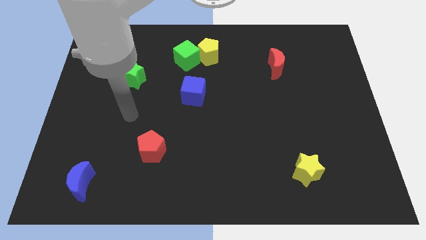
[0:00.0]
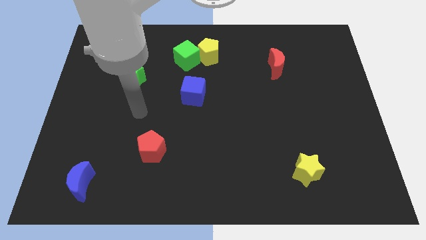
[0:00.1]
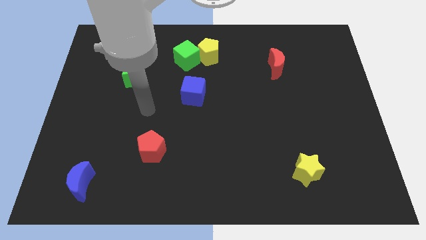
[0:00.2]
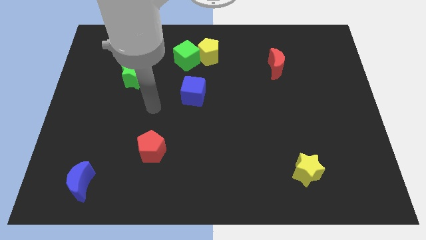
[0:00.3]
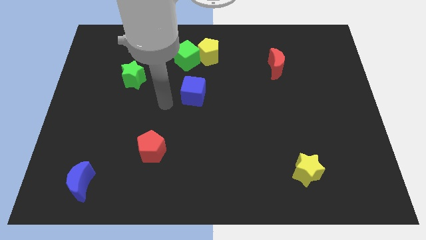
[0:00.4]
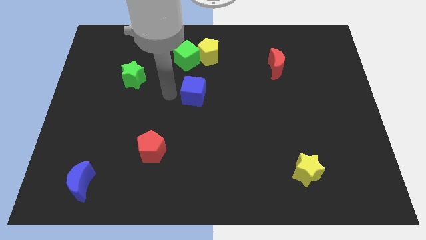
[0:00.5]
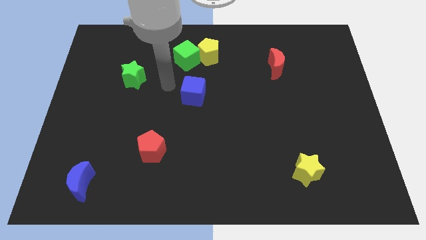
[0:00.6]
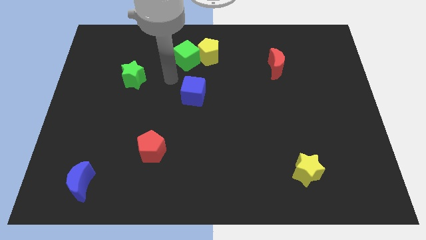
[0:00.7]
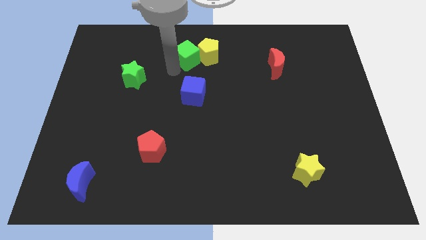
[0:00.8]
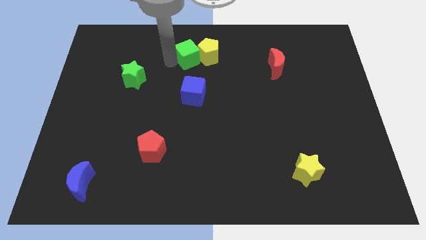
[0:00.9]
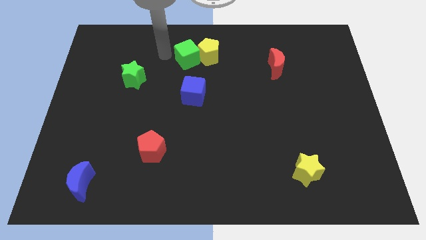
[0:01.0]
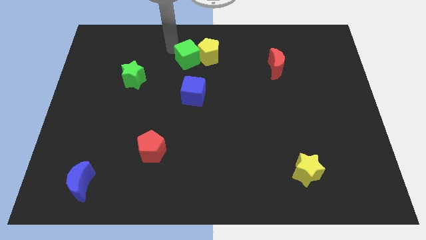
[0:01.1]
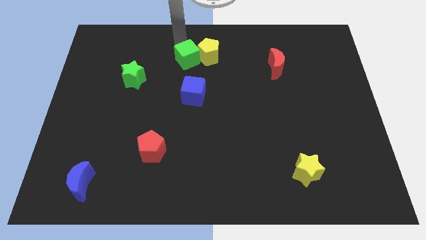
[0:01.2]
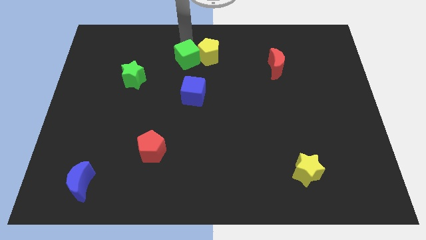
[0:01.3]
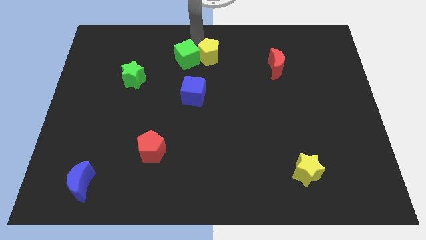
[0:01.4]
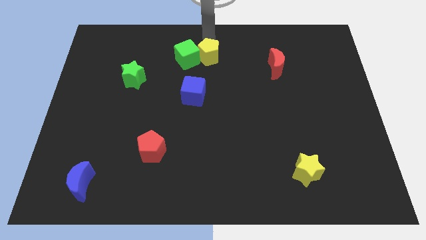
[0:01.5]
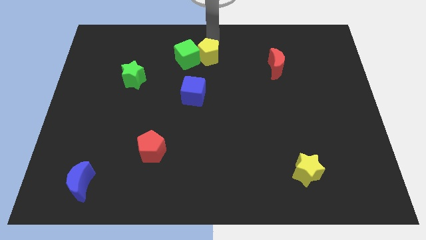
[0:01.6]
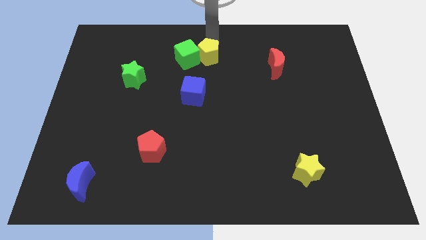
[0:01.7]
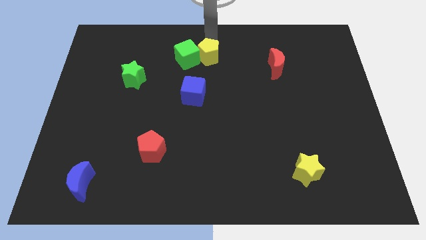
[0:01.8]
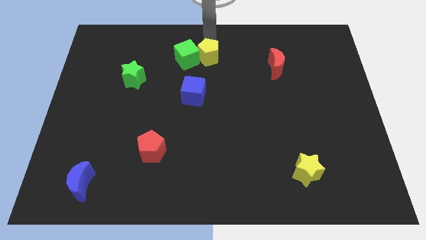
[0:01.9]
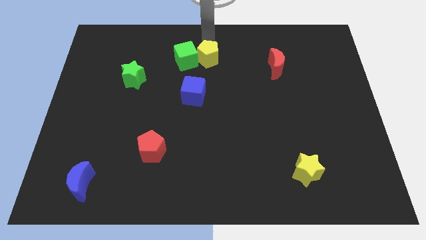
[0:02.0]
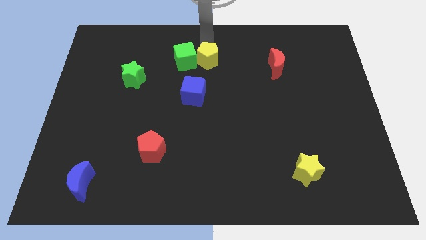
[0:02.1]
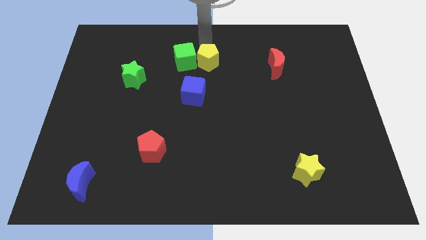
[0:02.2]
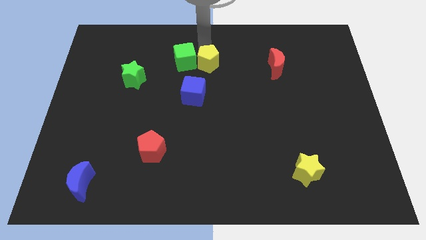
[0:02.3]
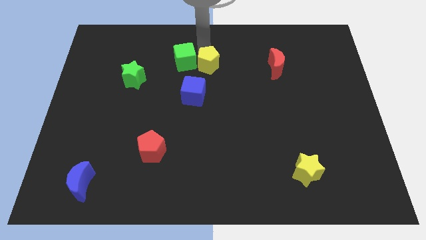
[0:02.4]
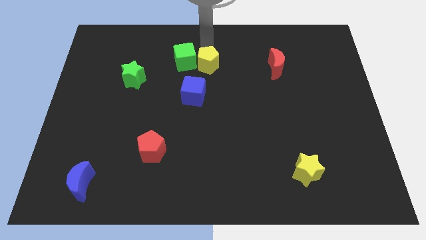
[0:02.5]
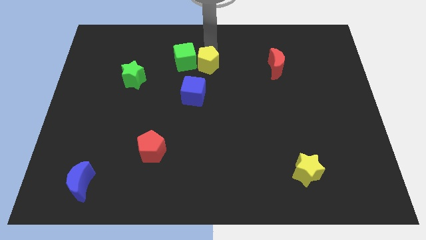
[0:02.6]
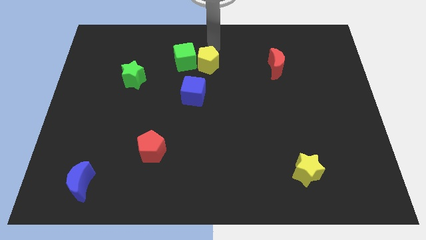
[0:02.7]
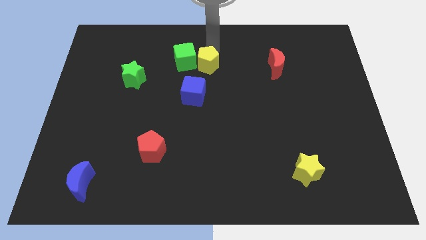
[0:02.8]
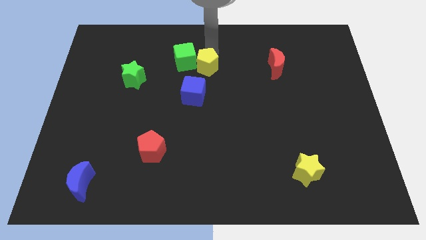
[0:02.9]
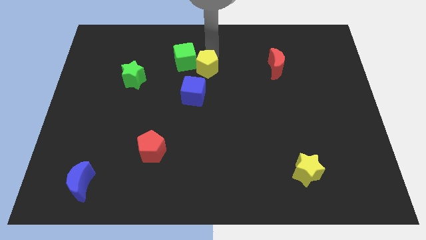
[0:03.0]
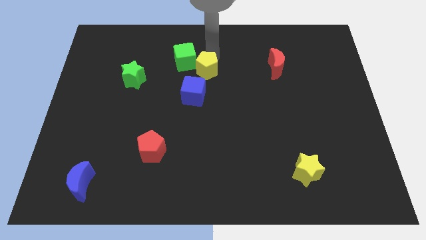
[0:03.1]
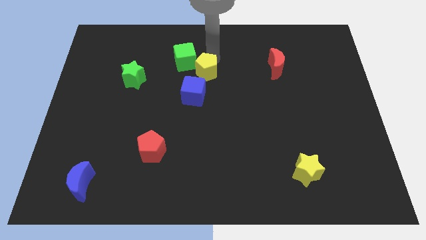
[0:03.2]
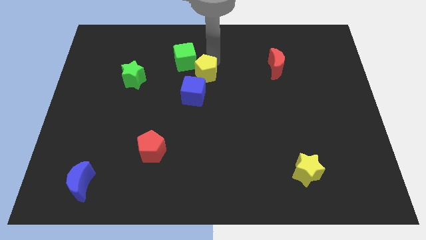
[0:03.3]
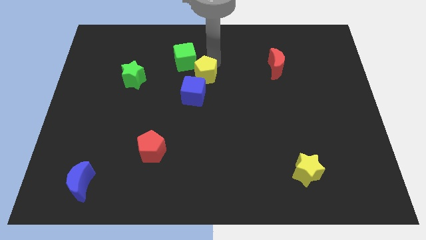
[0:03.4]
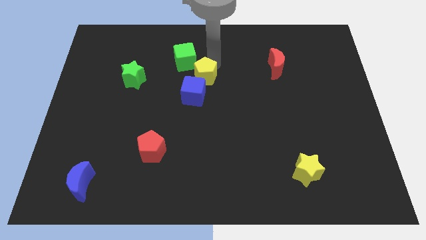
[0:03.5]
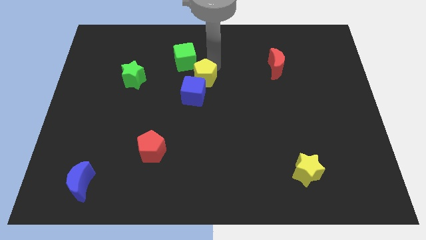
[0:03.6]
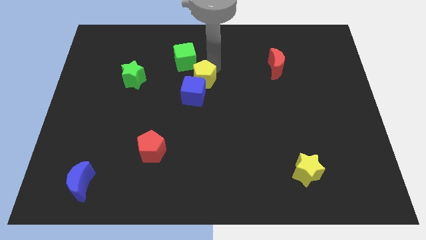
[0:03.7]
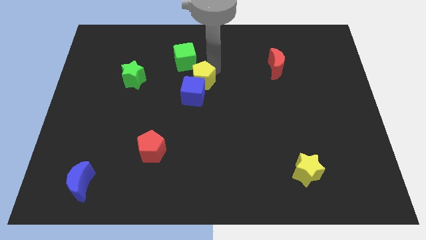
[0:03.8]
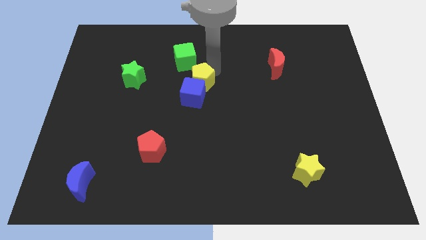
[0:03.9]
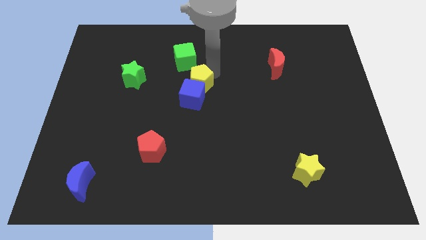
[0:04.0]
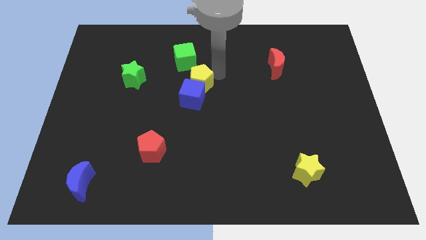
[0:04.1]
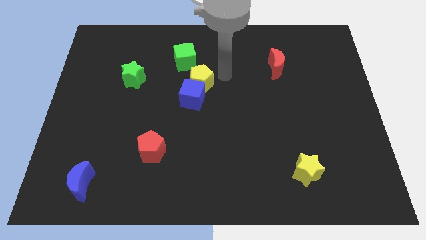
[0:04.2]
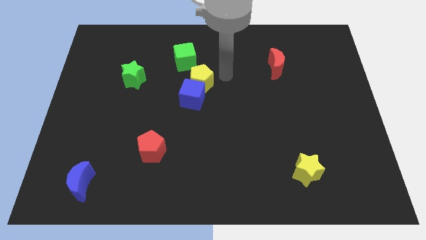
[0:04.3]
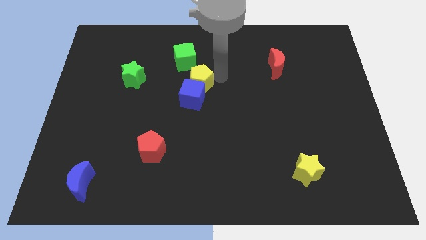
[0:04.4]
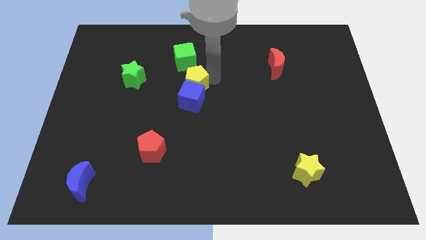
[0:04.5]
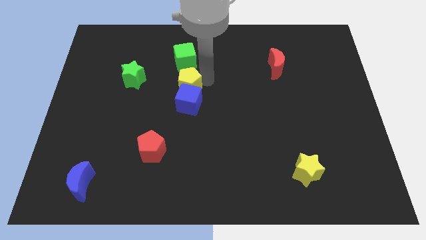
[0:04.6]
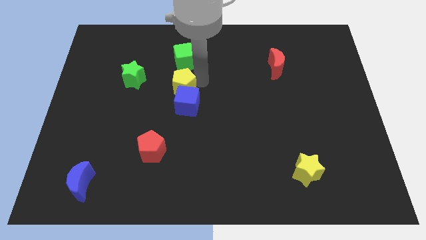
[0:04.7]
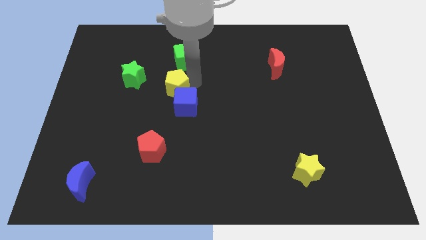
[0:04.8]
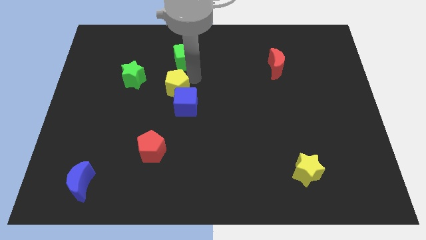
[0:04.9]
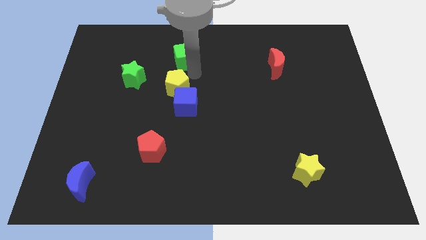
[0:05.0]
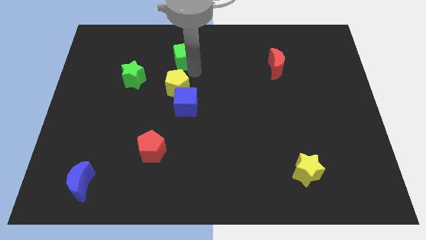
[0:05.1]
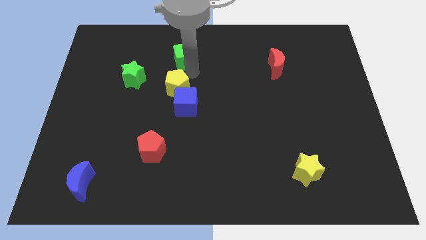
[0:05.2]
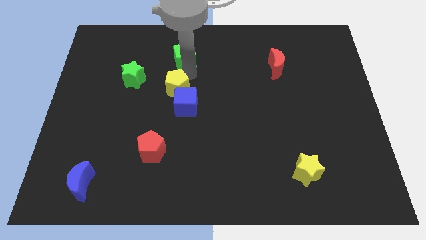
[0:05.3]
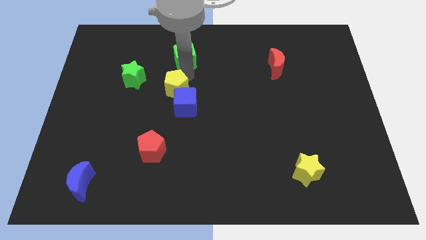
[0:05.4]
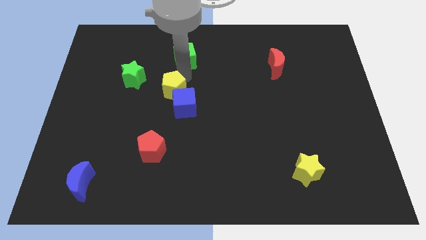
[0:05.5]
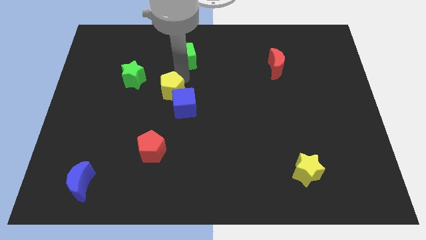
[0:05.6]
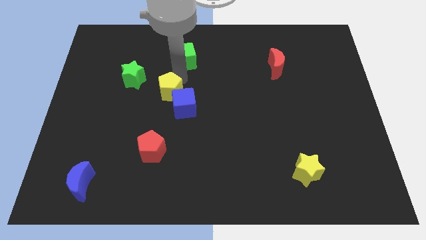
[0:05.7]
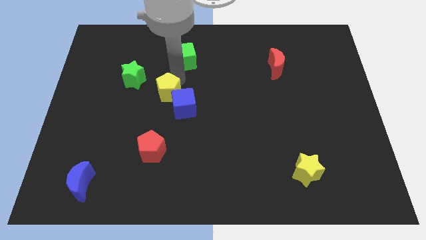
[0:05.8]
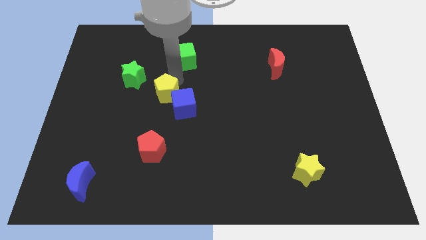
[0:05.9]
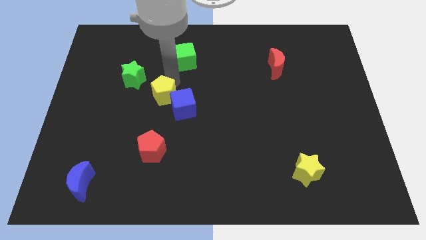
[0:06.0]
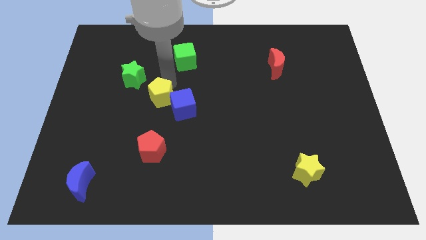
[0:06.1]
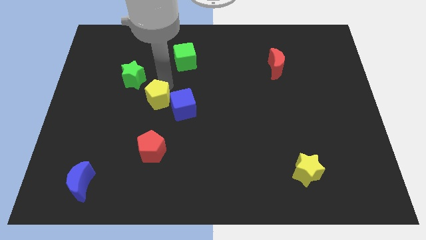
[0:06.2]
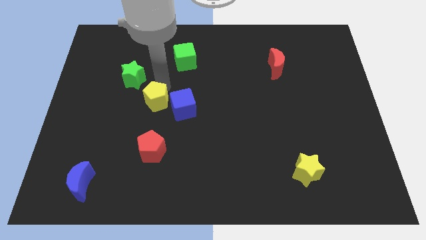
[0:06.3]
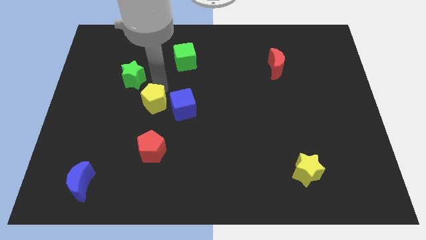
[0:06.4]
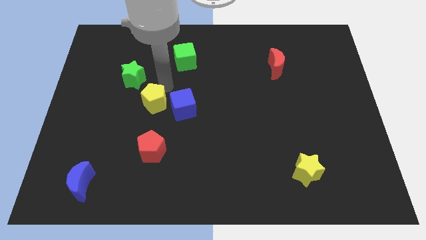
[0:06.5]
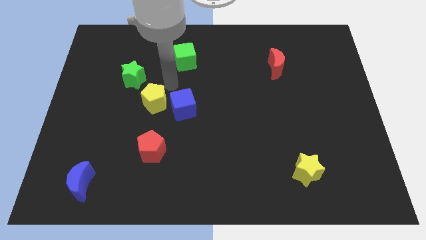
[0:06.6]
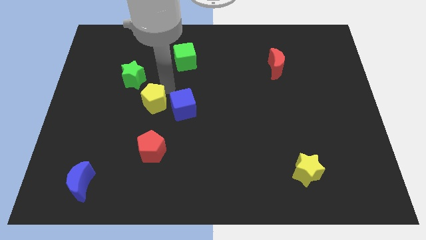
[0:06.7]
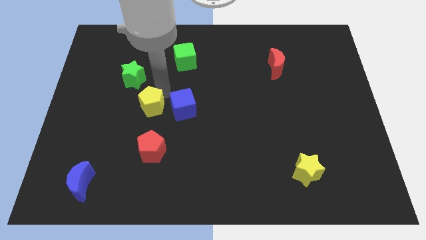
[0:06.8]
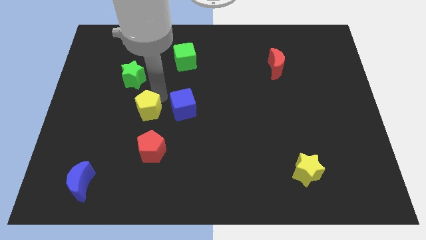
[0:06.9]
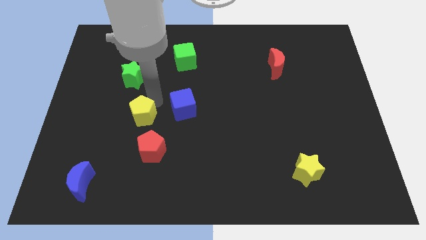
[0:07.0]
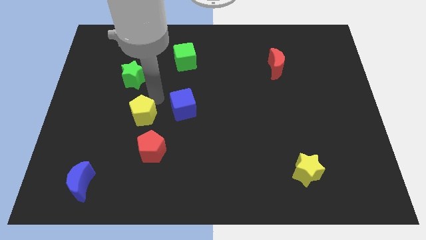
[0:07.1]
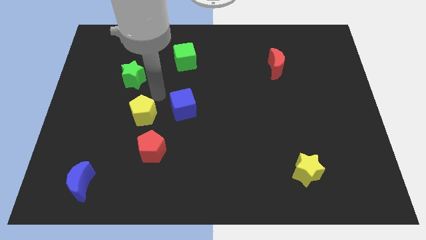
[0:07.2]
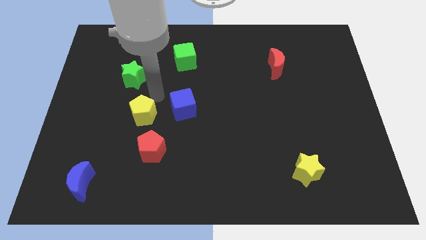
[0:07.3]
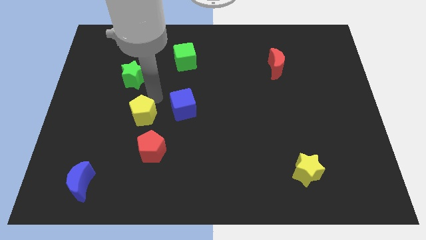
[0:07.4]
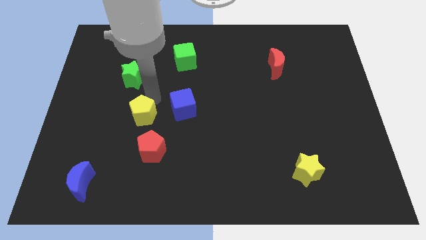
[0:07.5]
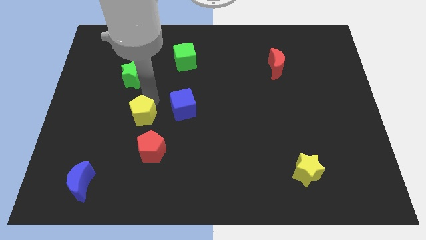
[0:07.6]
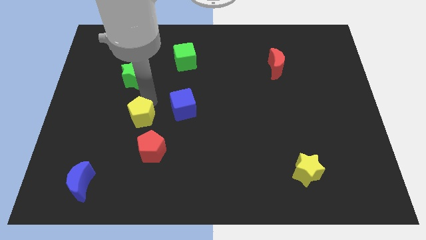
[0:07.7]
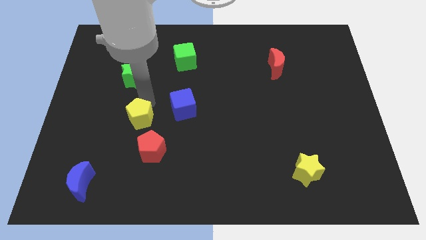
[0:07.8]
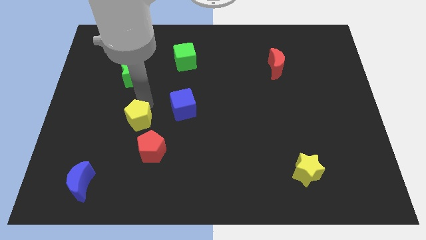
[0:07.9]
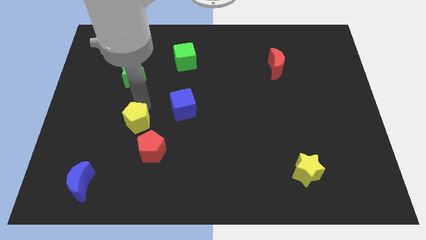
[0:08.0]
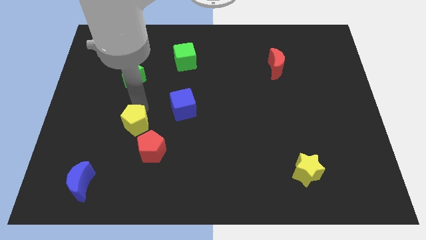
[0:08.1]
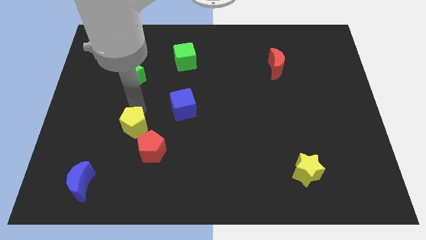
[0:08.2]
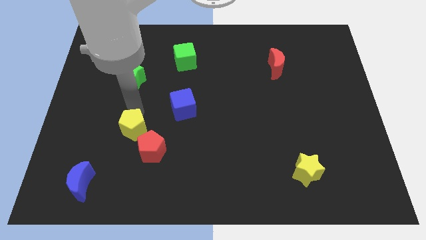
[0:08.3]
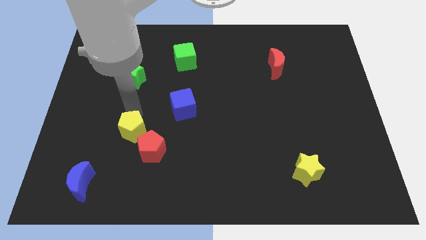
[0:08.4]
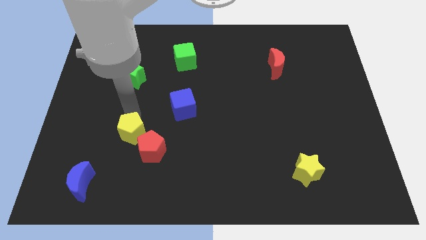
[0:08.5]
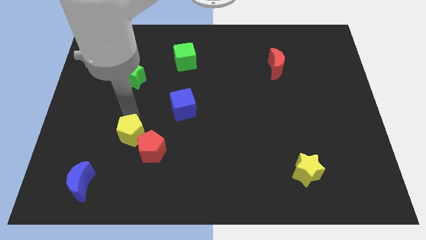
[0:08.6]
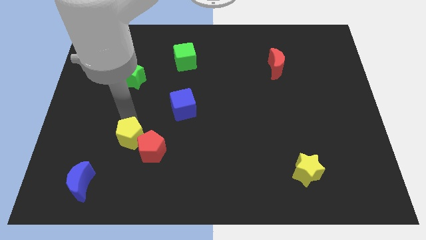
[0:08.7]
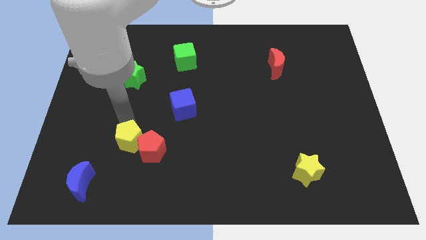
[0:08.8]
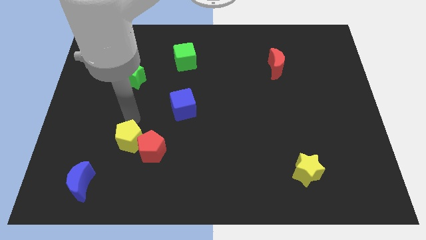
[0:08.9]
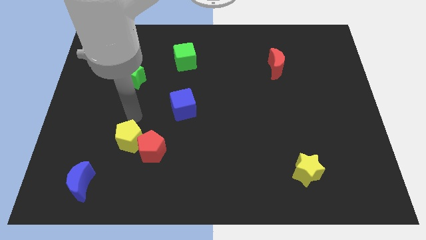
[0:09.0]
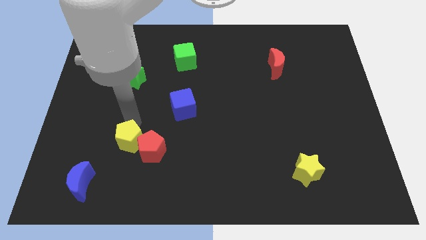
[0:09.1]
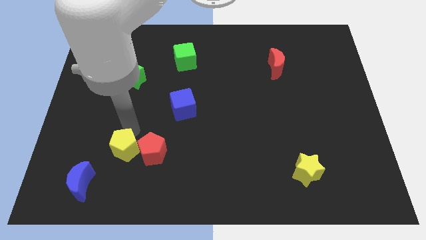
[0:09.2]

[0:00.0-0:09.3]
push the yellow pentagon diagonally down and to the left of the red pentagon
